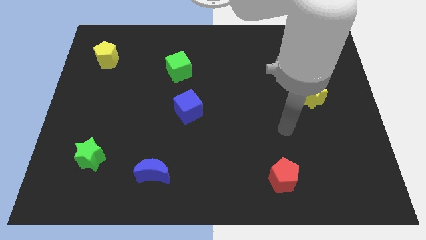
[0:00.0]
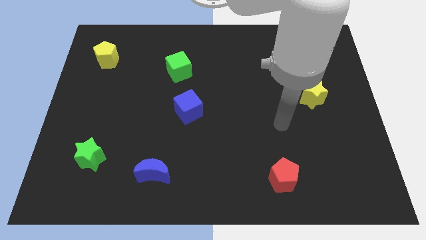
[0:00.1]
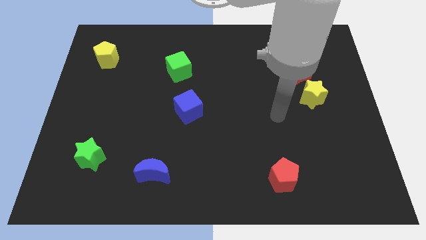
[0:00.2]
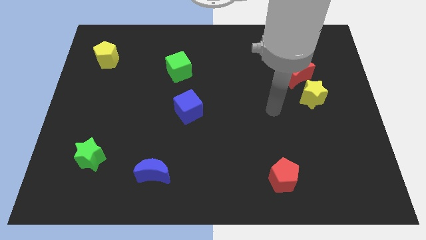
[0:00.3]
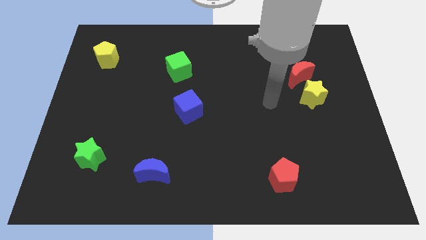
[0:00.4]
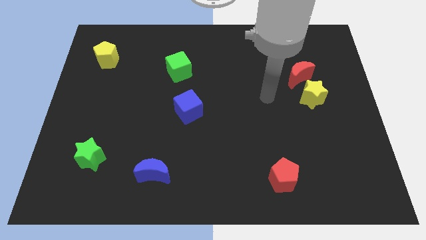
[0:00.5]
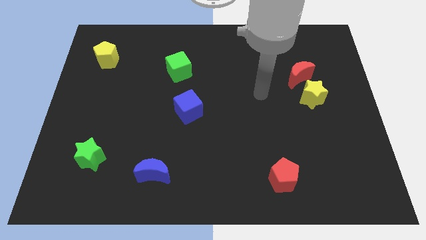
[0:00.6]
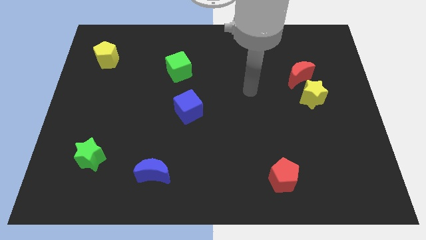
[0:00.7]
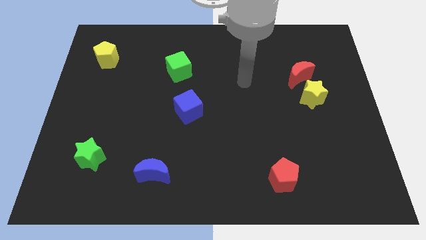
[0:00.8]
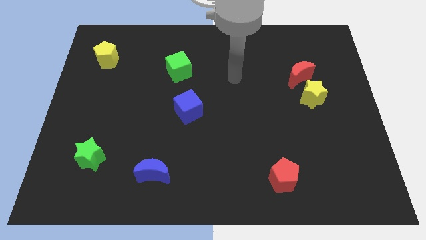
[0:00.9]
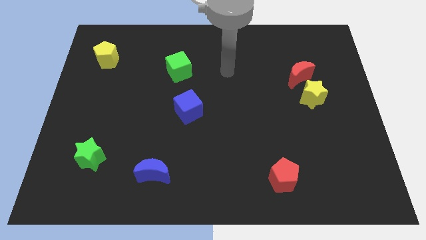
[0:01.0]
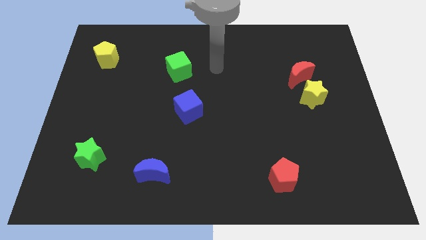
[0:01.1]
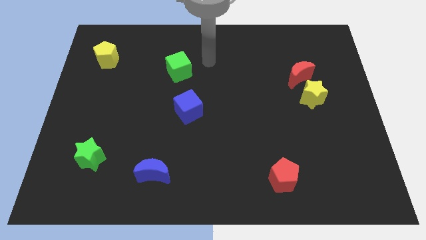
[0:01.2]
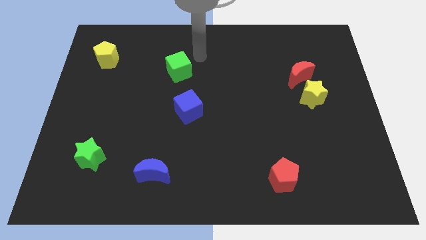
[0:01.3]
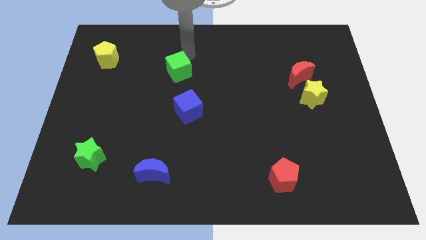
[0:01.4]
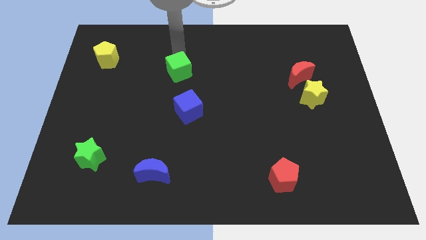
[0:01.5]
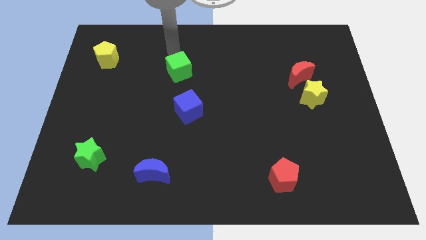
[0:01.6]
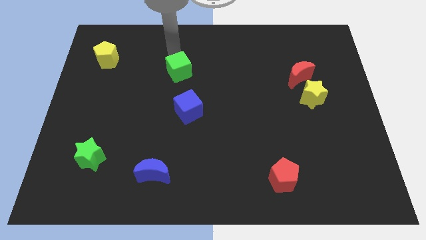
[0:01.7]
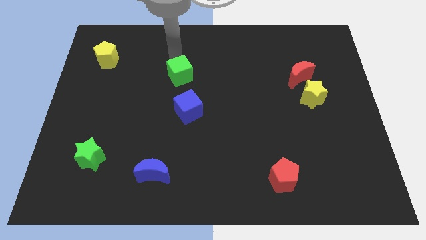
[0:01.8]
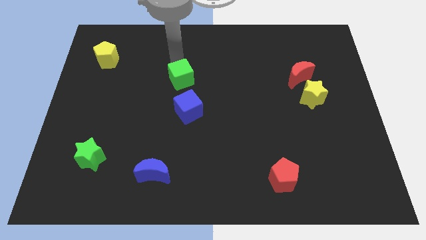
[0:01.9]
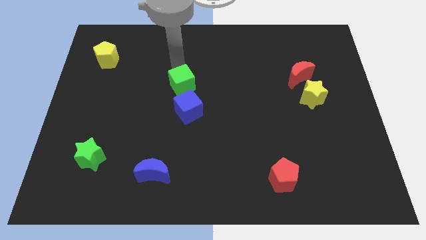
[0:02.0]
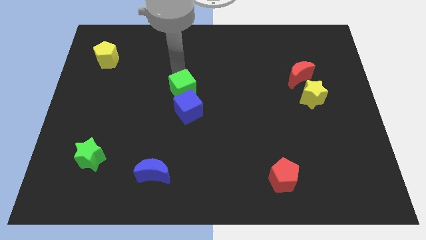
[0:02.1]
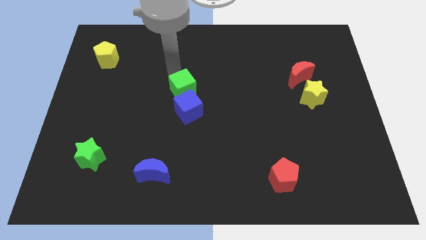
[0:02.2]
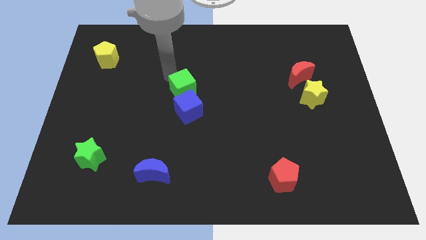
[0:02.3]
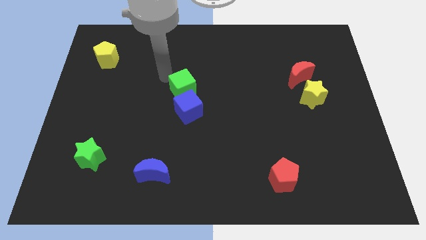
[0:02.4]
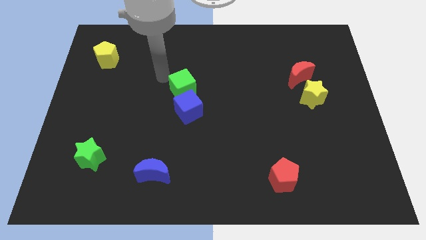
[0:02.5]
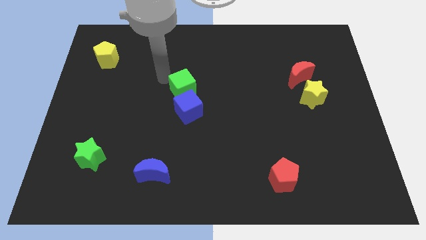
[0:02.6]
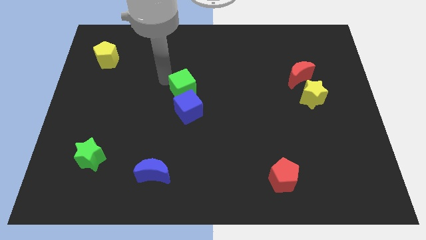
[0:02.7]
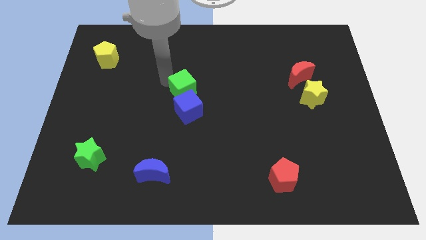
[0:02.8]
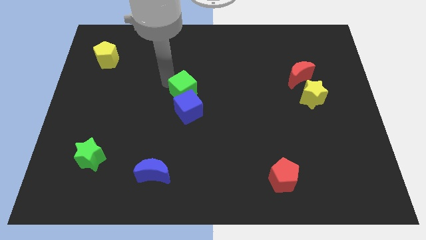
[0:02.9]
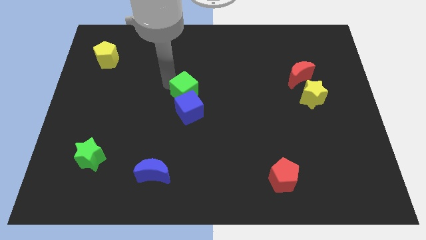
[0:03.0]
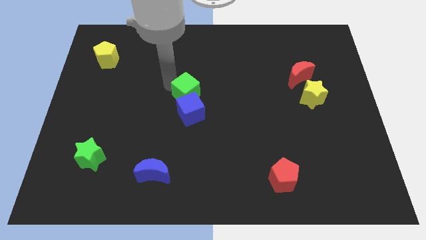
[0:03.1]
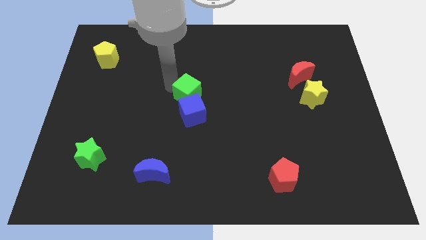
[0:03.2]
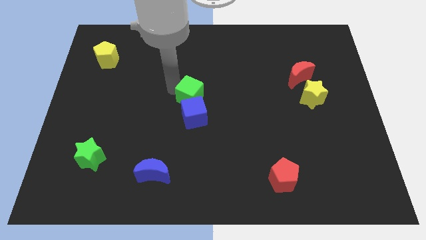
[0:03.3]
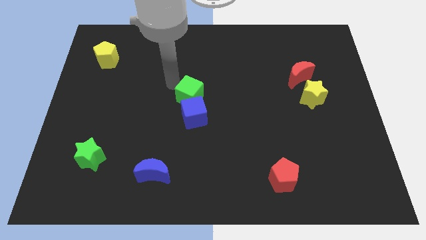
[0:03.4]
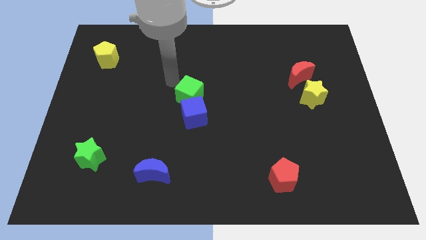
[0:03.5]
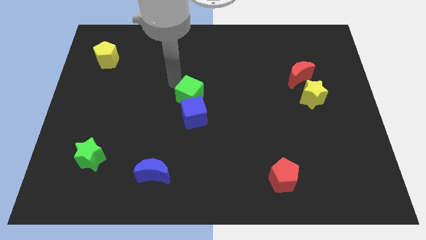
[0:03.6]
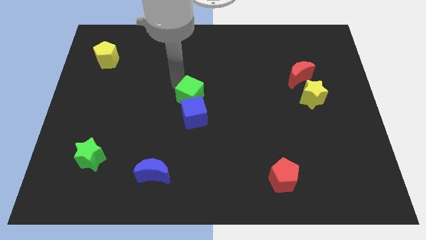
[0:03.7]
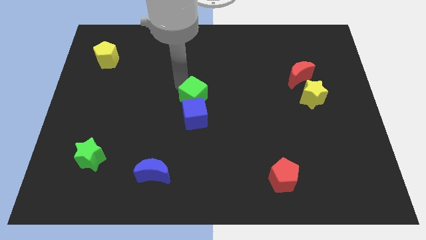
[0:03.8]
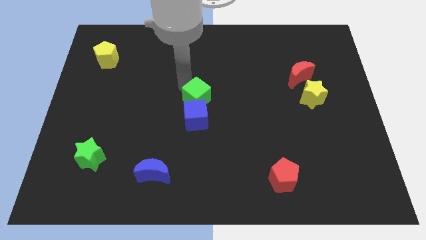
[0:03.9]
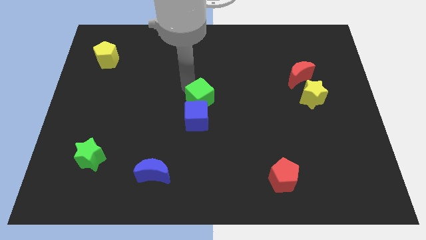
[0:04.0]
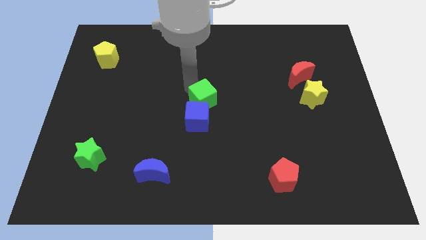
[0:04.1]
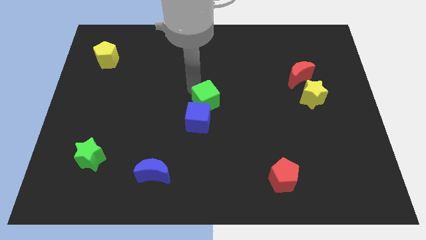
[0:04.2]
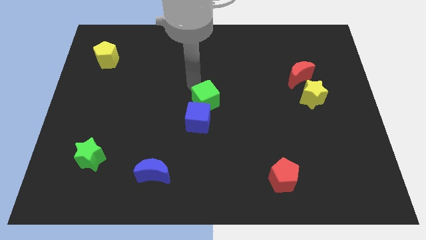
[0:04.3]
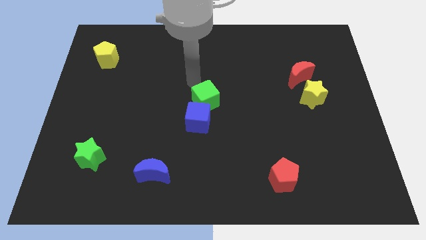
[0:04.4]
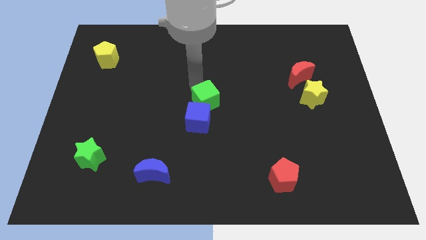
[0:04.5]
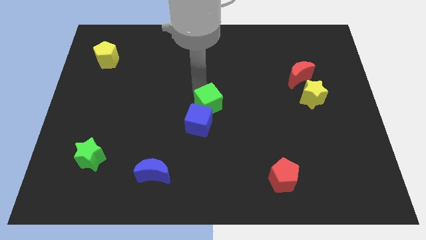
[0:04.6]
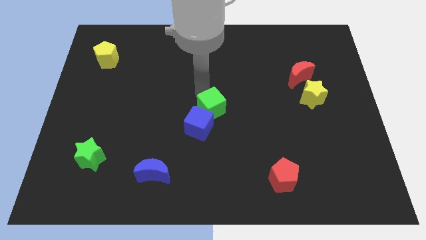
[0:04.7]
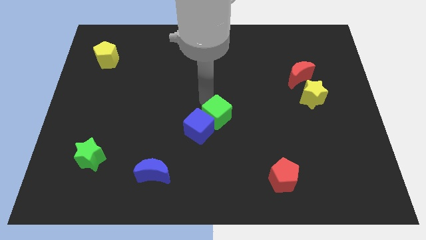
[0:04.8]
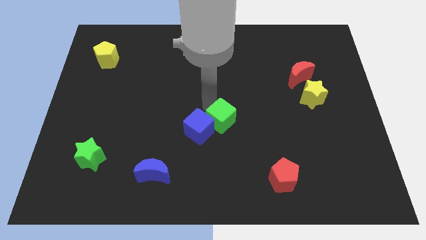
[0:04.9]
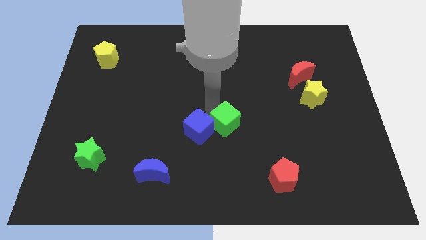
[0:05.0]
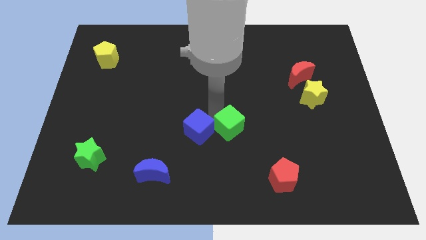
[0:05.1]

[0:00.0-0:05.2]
move the green cube downwards and right

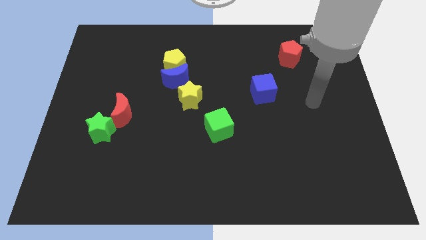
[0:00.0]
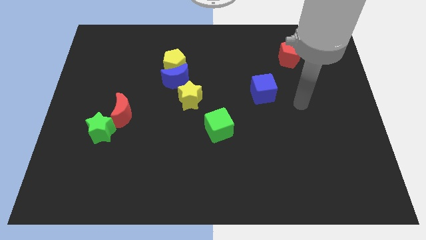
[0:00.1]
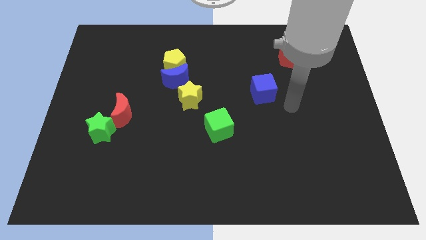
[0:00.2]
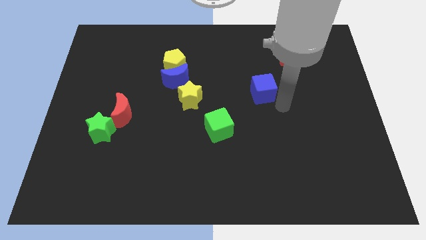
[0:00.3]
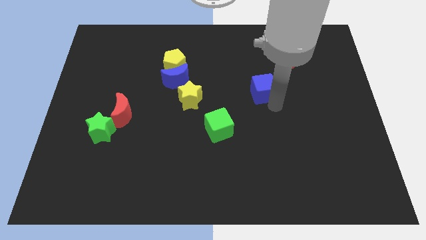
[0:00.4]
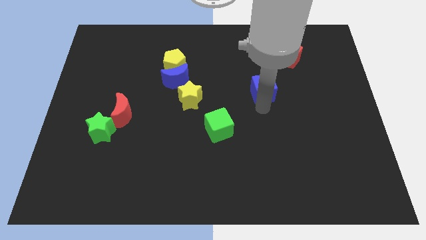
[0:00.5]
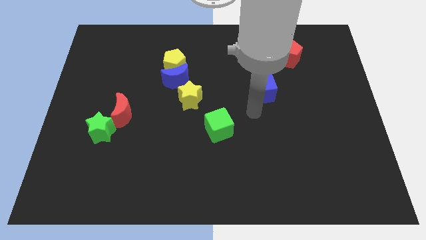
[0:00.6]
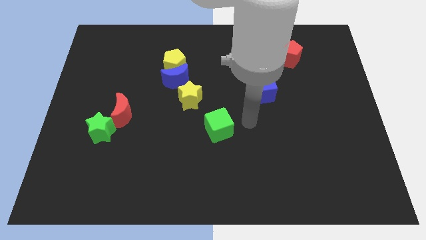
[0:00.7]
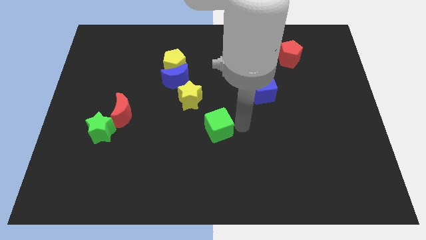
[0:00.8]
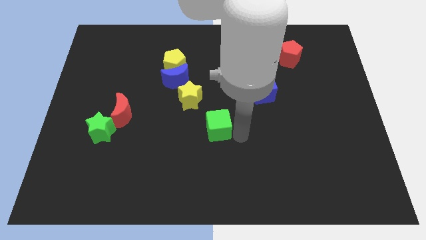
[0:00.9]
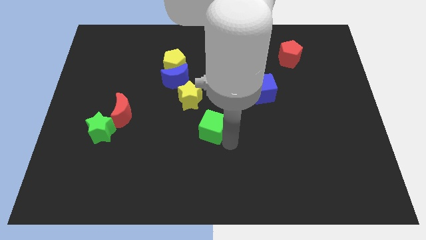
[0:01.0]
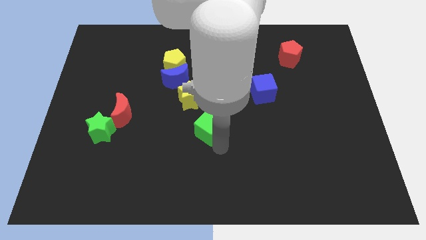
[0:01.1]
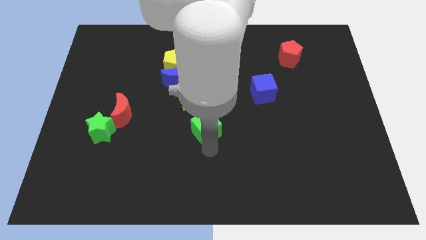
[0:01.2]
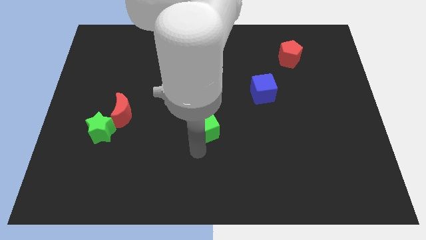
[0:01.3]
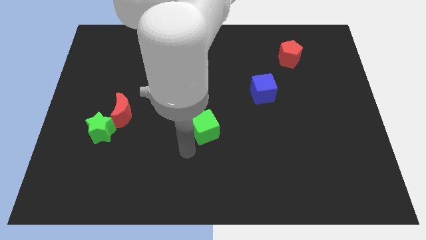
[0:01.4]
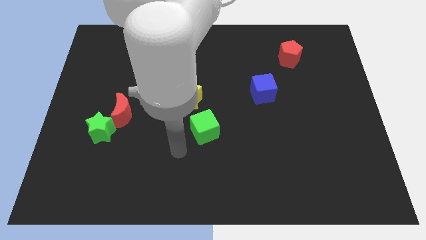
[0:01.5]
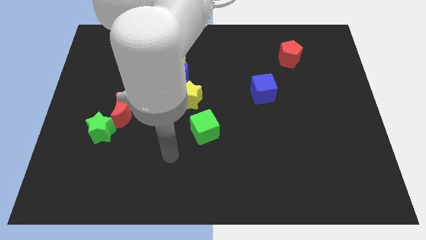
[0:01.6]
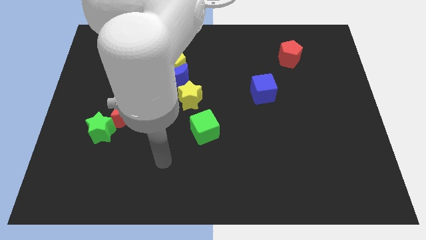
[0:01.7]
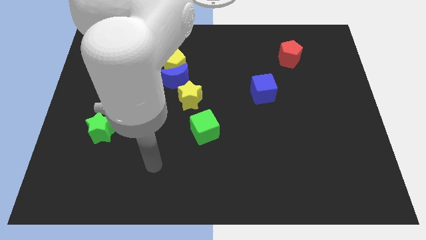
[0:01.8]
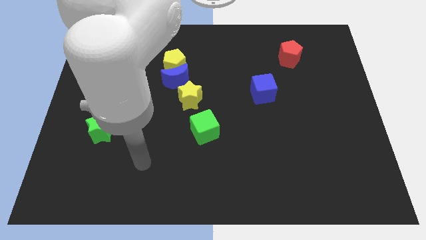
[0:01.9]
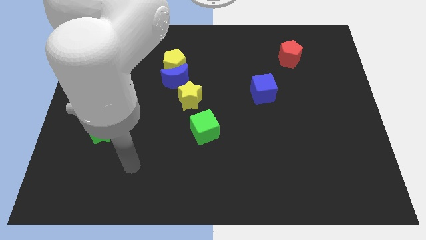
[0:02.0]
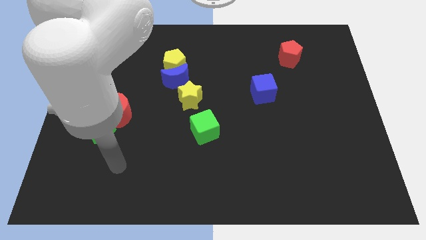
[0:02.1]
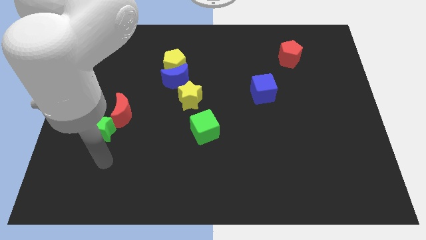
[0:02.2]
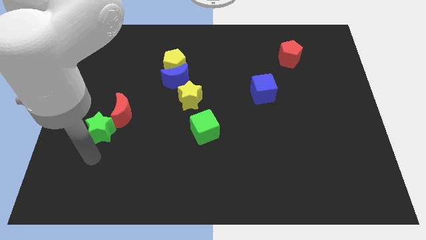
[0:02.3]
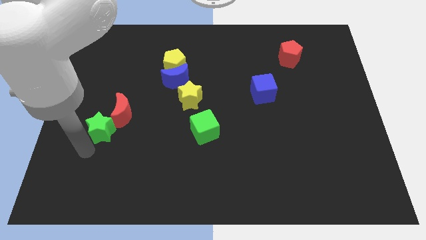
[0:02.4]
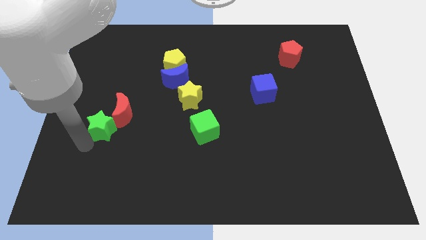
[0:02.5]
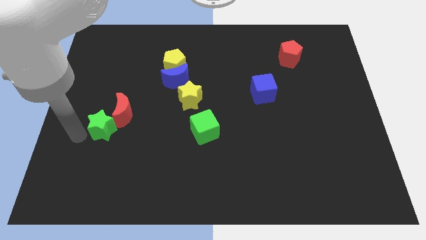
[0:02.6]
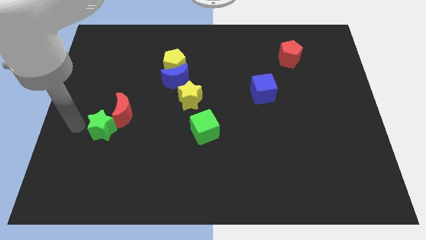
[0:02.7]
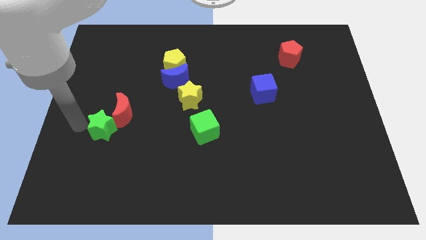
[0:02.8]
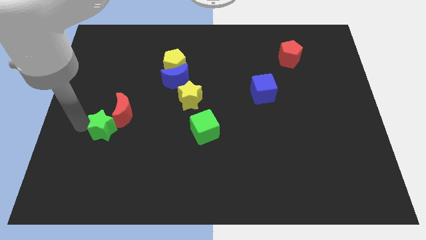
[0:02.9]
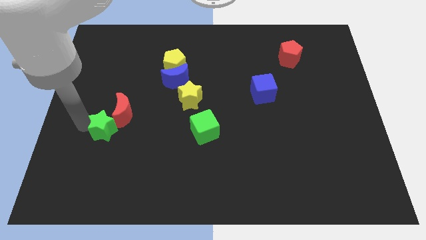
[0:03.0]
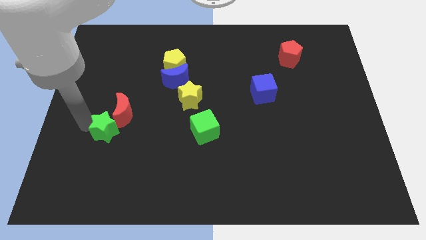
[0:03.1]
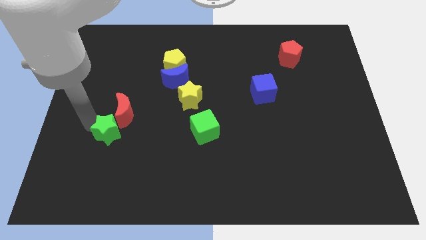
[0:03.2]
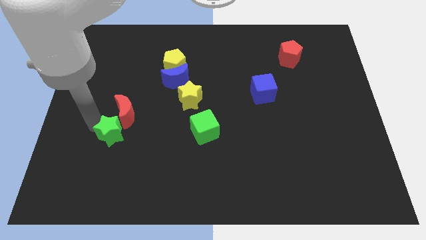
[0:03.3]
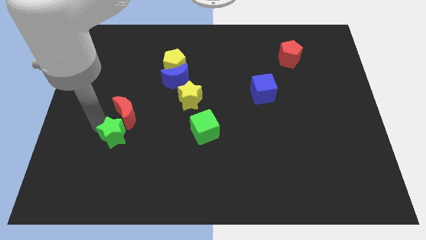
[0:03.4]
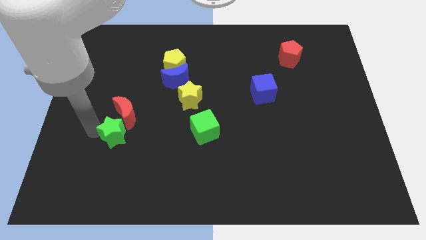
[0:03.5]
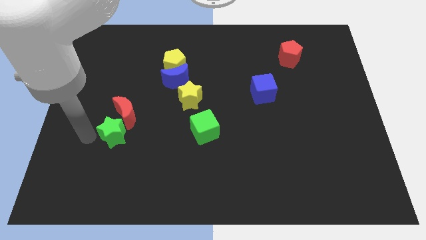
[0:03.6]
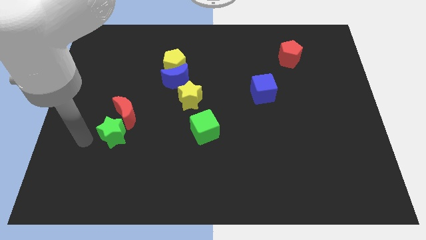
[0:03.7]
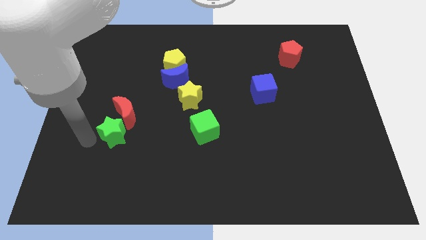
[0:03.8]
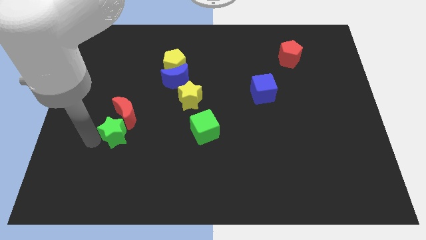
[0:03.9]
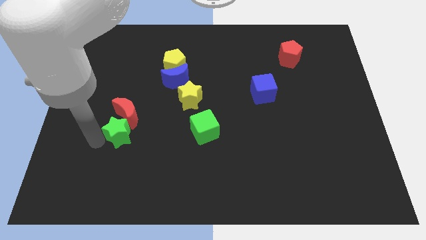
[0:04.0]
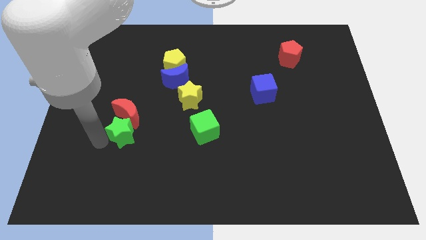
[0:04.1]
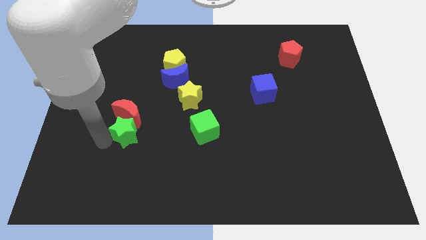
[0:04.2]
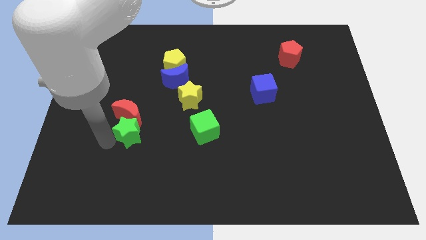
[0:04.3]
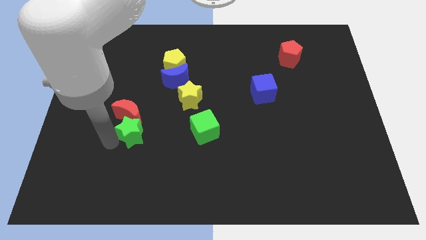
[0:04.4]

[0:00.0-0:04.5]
move the green star a little bit right
